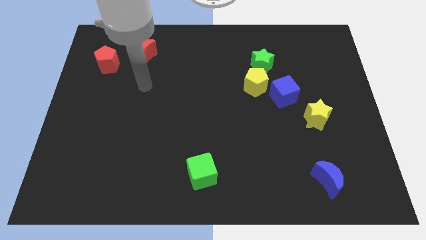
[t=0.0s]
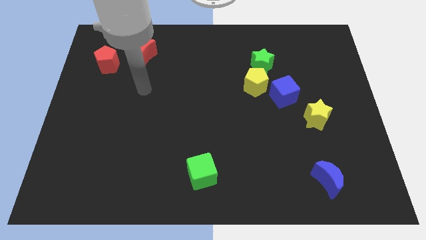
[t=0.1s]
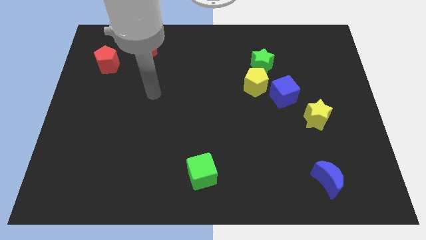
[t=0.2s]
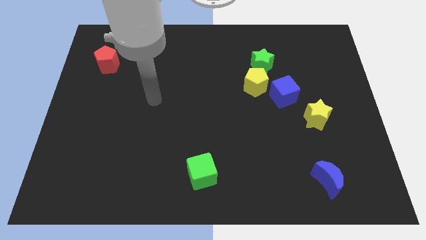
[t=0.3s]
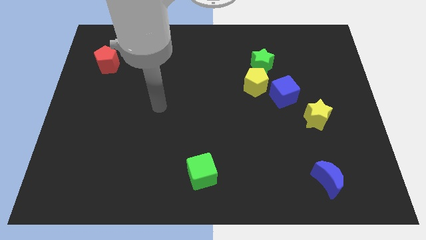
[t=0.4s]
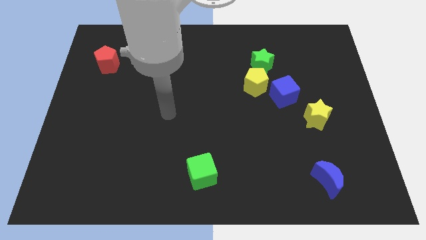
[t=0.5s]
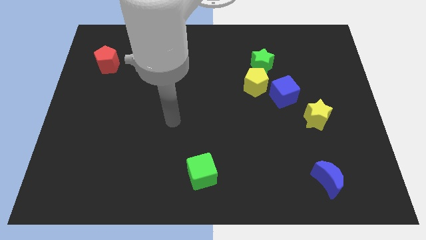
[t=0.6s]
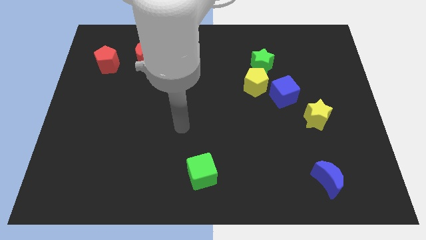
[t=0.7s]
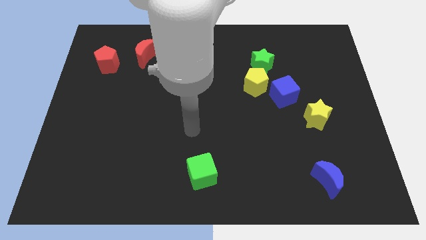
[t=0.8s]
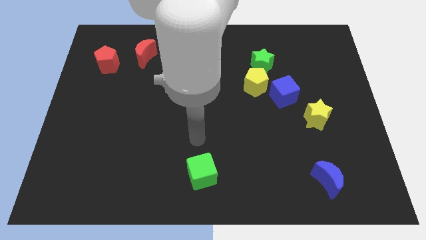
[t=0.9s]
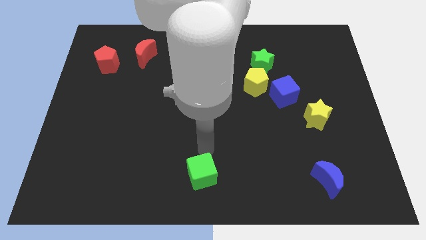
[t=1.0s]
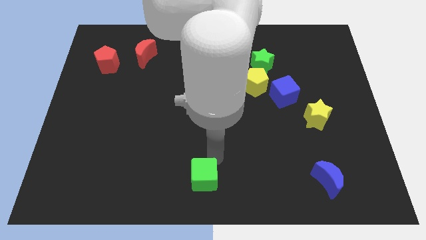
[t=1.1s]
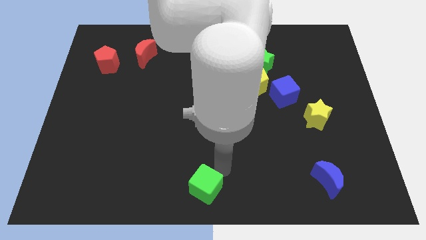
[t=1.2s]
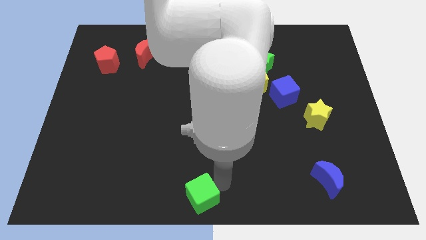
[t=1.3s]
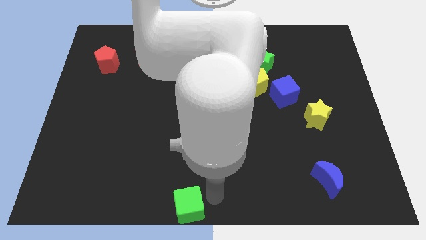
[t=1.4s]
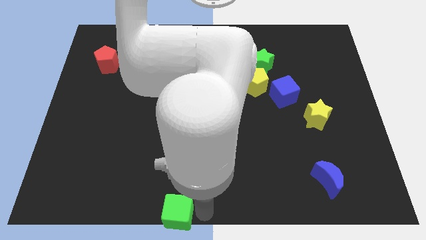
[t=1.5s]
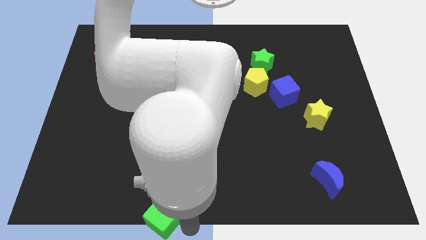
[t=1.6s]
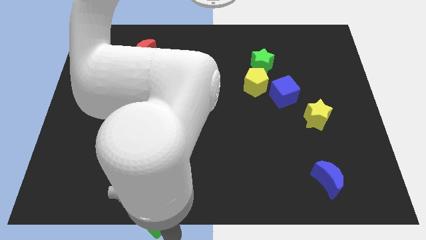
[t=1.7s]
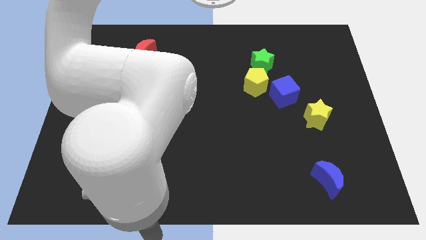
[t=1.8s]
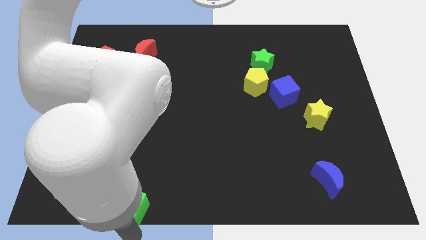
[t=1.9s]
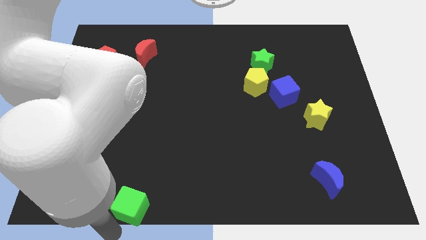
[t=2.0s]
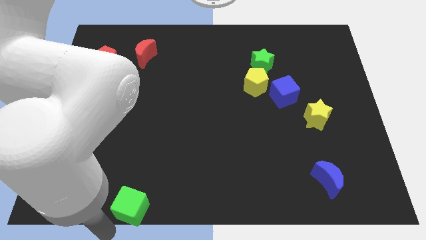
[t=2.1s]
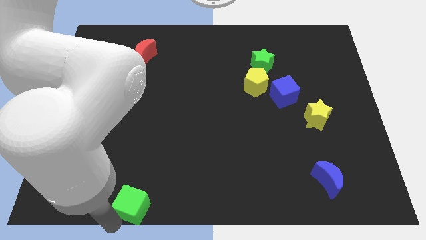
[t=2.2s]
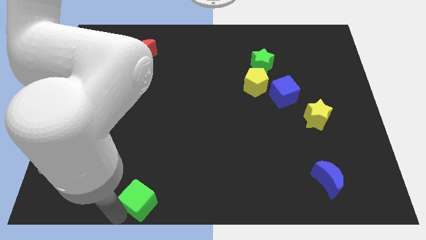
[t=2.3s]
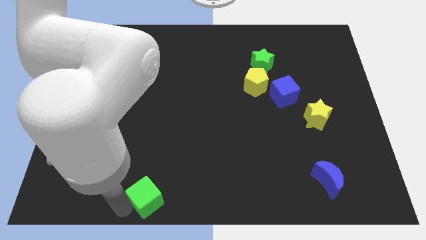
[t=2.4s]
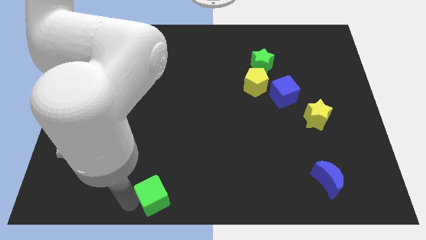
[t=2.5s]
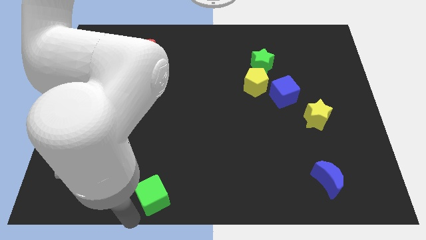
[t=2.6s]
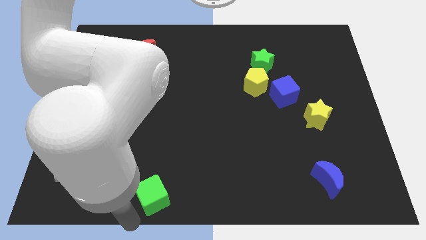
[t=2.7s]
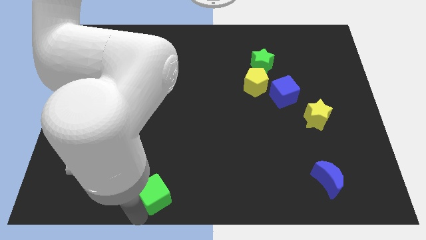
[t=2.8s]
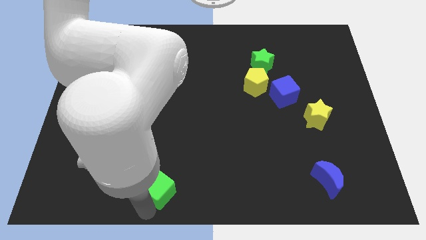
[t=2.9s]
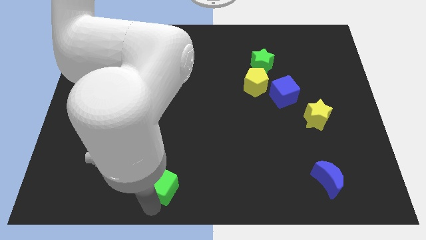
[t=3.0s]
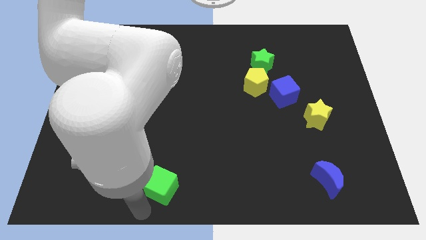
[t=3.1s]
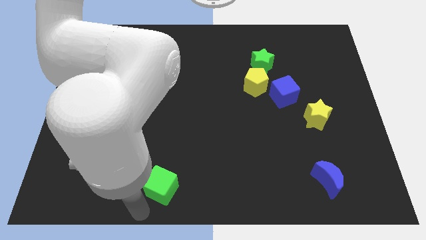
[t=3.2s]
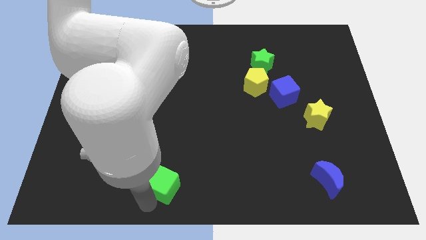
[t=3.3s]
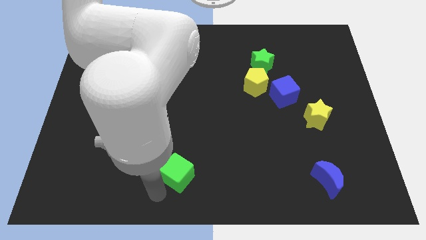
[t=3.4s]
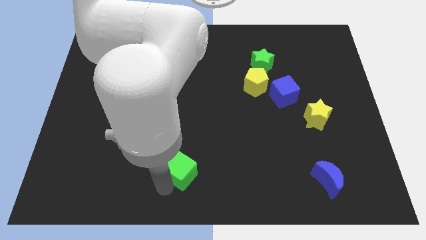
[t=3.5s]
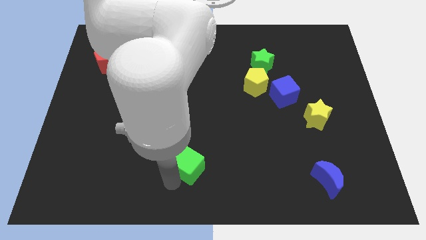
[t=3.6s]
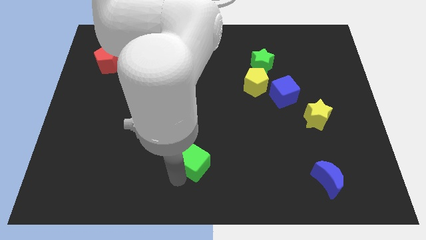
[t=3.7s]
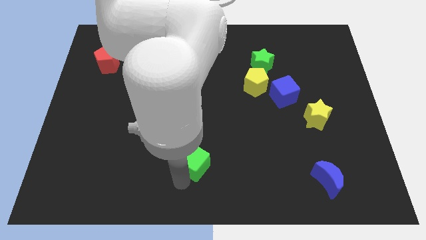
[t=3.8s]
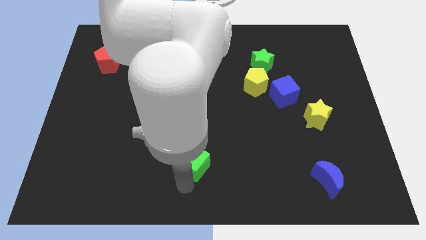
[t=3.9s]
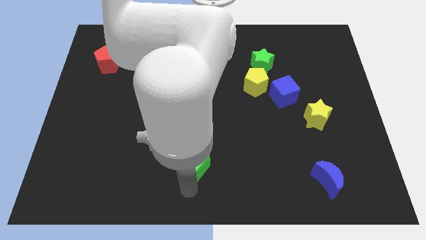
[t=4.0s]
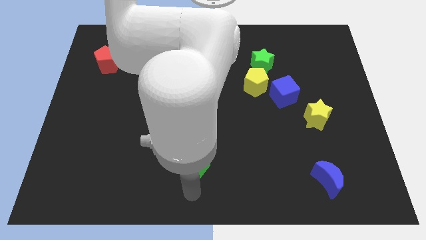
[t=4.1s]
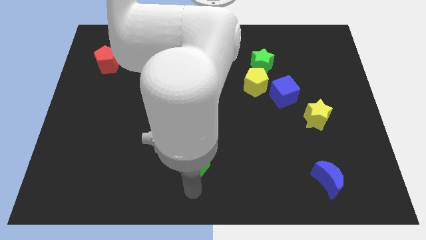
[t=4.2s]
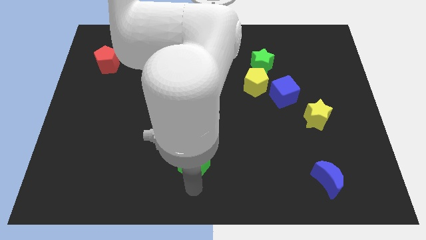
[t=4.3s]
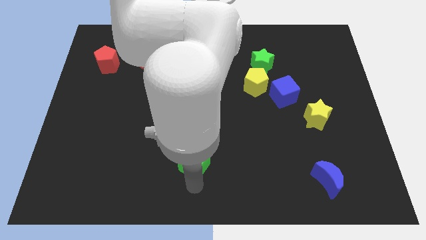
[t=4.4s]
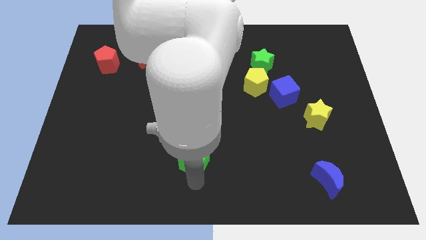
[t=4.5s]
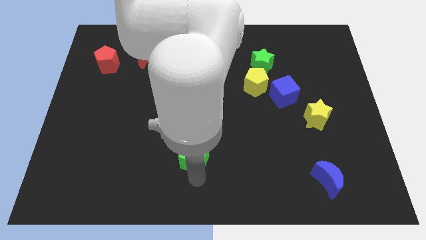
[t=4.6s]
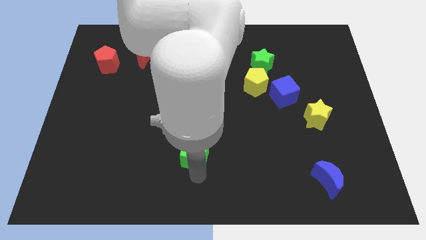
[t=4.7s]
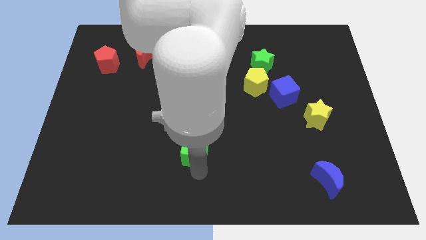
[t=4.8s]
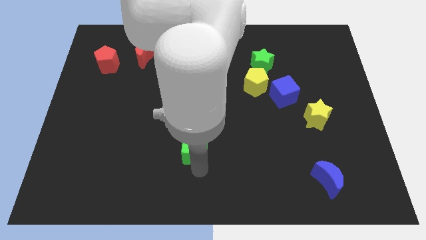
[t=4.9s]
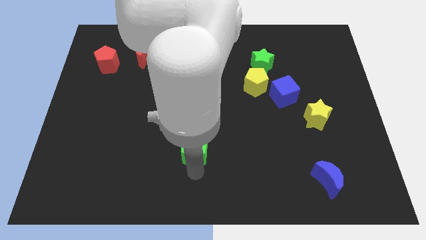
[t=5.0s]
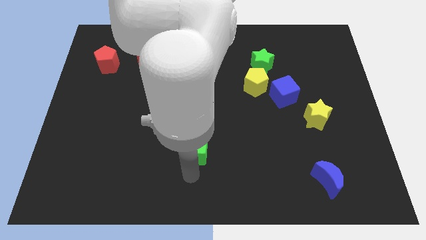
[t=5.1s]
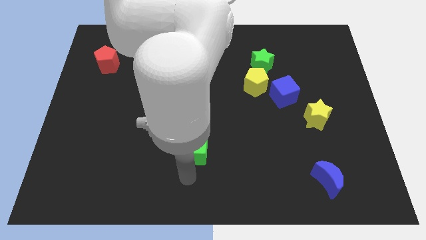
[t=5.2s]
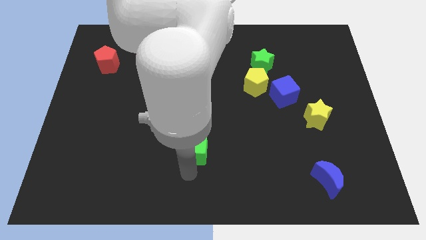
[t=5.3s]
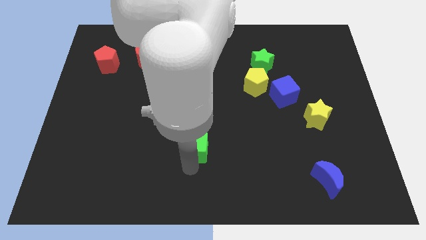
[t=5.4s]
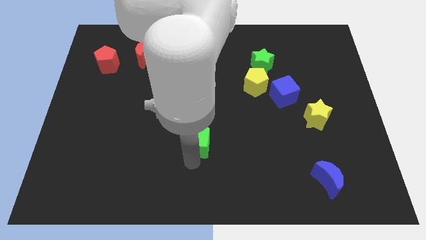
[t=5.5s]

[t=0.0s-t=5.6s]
slide the green cube slightly up

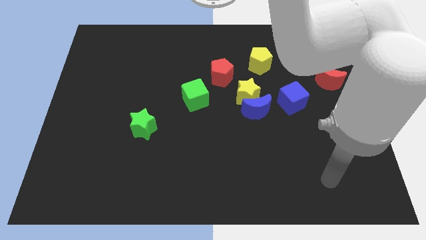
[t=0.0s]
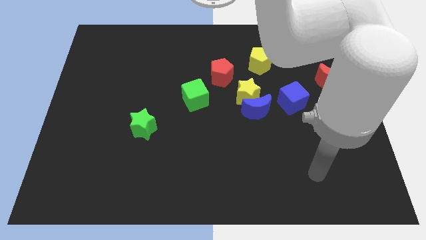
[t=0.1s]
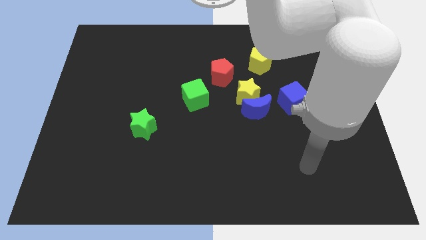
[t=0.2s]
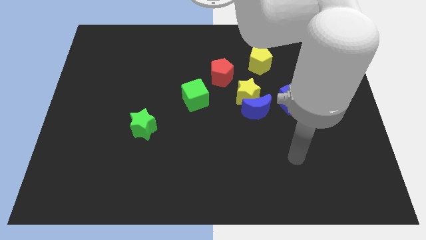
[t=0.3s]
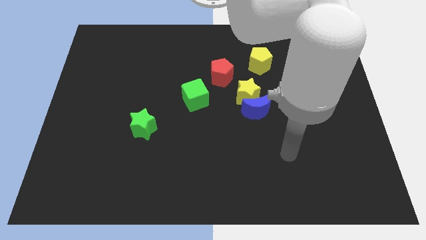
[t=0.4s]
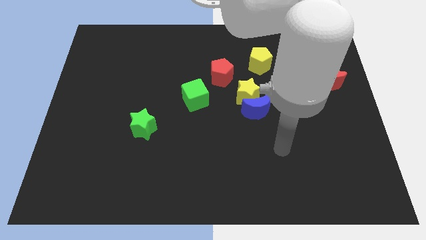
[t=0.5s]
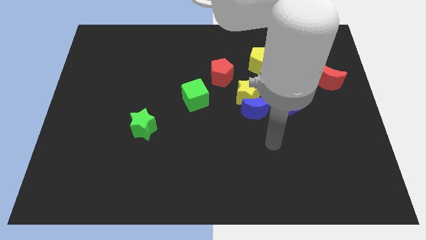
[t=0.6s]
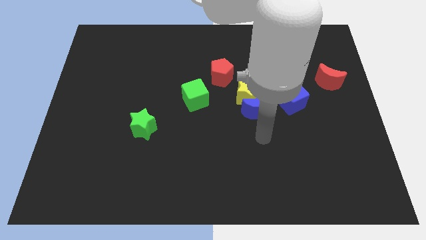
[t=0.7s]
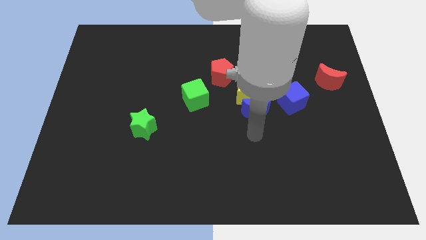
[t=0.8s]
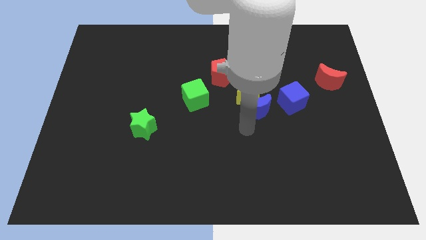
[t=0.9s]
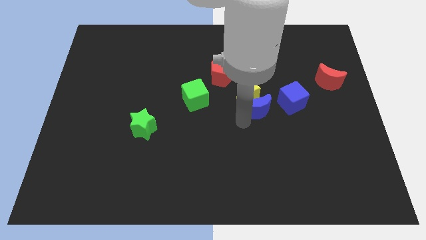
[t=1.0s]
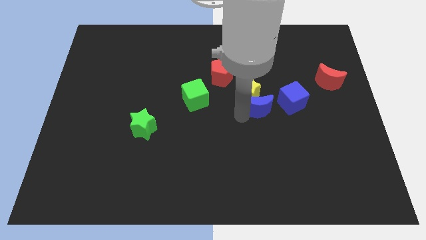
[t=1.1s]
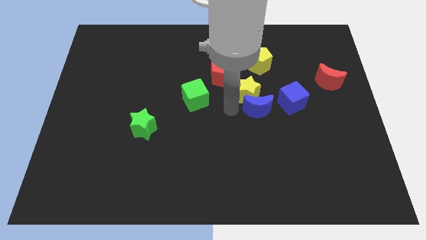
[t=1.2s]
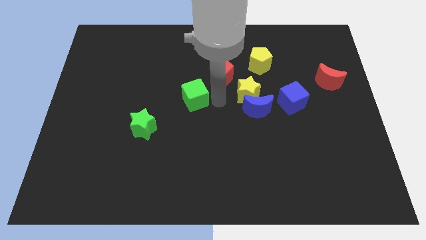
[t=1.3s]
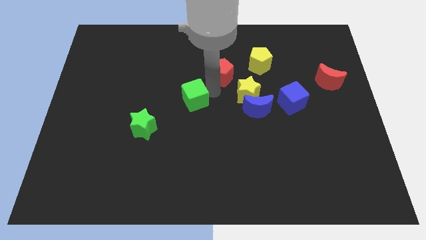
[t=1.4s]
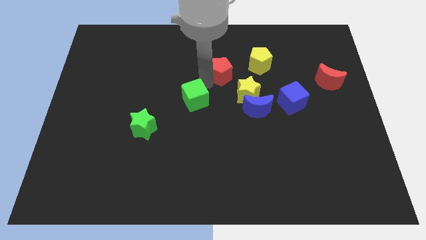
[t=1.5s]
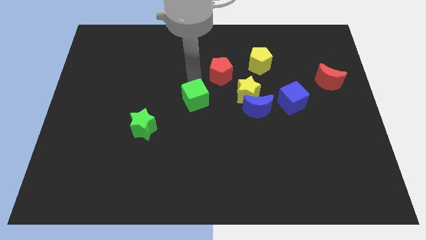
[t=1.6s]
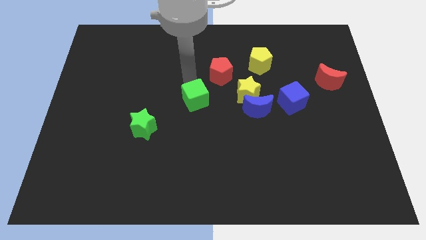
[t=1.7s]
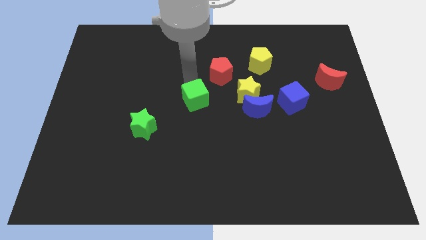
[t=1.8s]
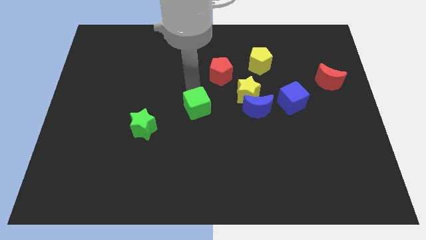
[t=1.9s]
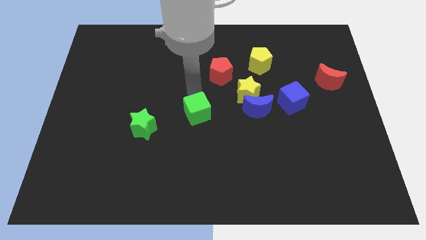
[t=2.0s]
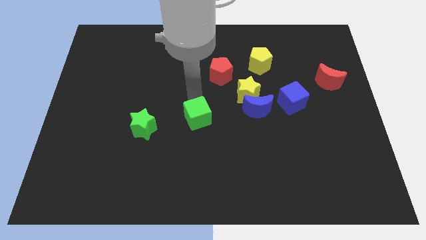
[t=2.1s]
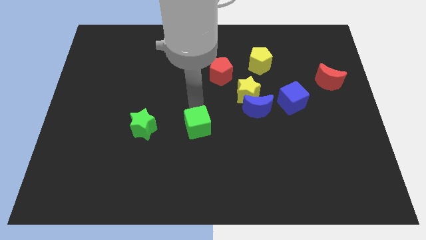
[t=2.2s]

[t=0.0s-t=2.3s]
push the green cube somewhat downwards
